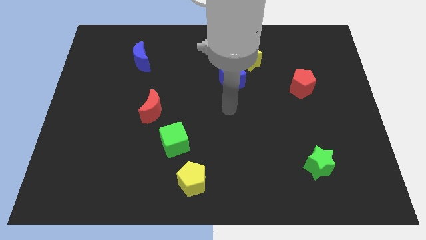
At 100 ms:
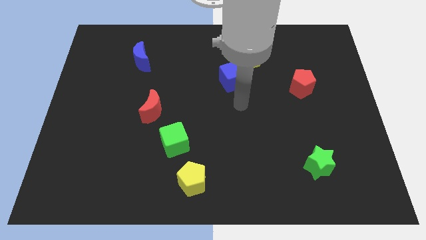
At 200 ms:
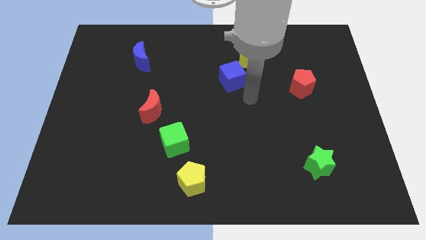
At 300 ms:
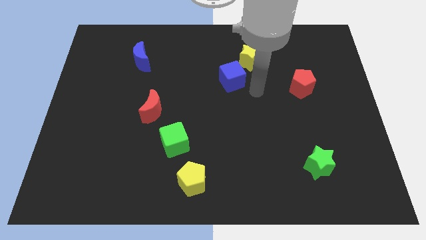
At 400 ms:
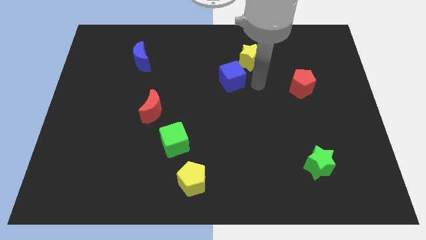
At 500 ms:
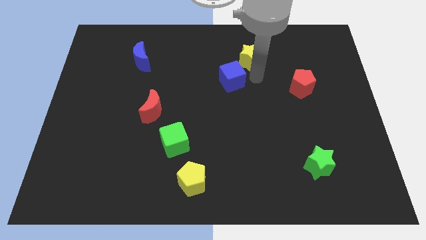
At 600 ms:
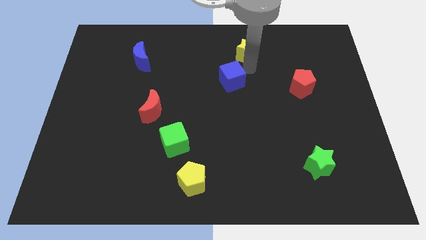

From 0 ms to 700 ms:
pull the blue cube apart from the yellow star

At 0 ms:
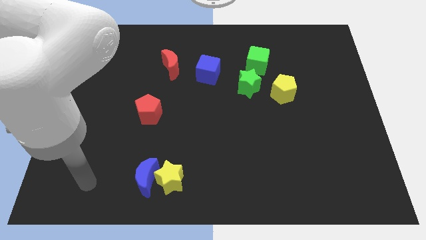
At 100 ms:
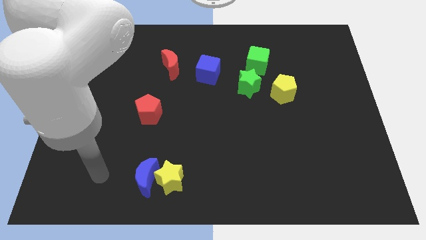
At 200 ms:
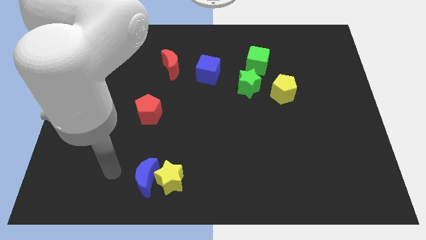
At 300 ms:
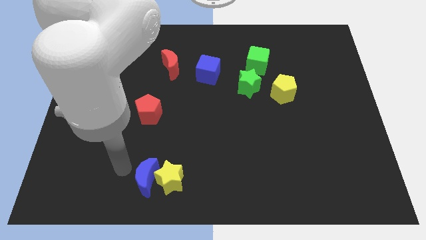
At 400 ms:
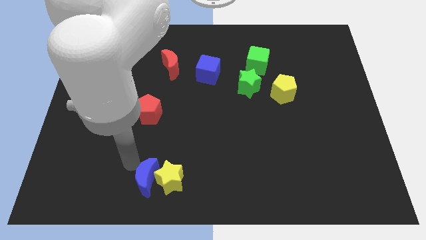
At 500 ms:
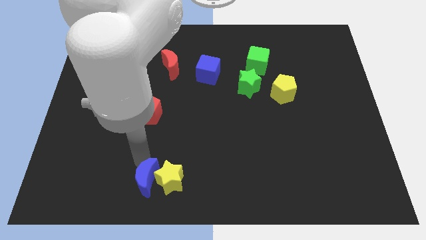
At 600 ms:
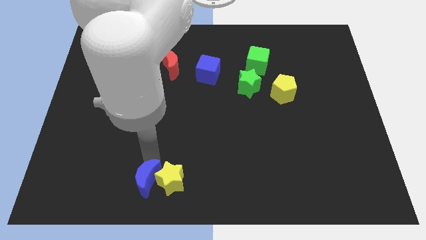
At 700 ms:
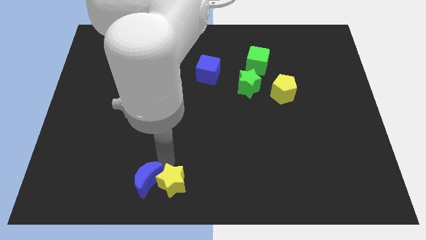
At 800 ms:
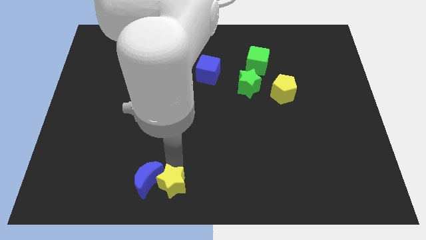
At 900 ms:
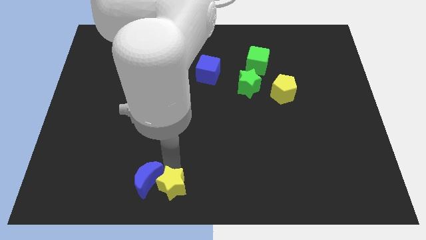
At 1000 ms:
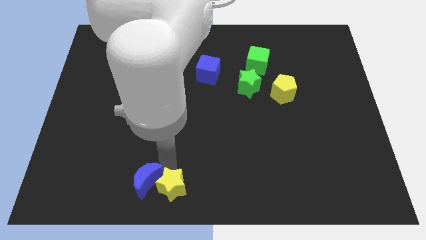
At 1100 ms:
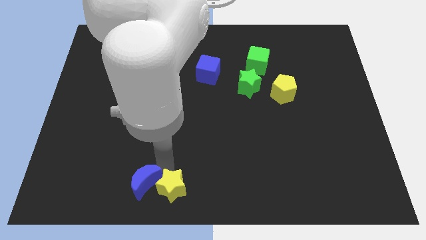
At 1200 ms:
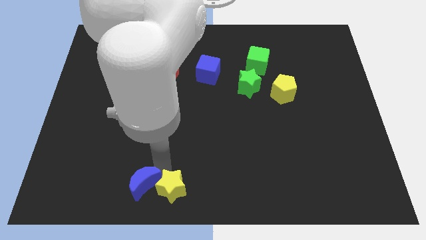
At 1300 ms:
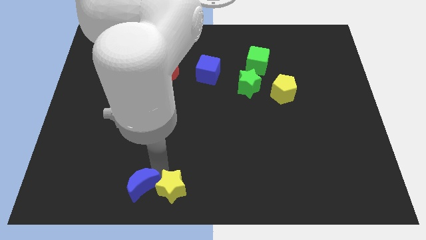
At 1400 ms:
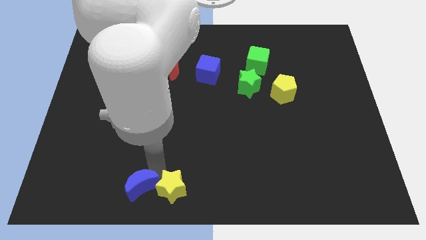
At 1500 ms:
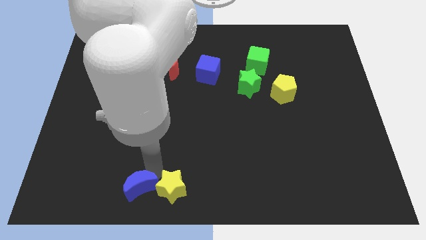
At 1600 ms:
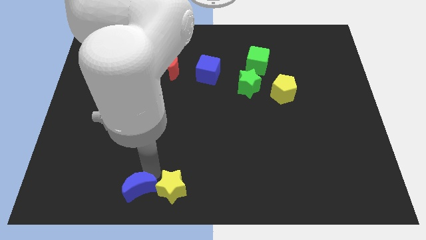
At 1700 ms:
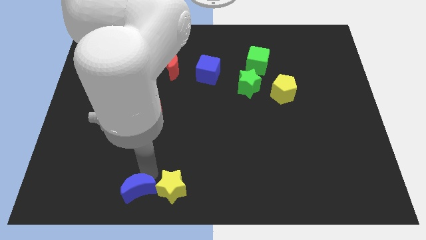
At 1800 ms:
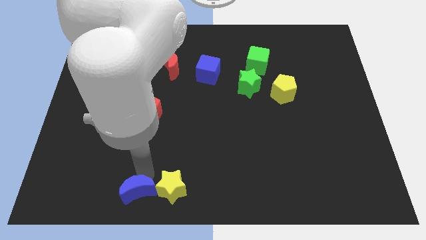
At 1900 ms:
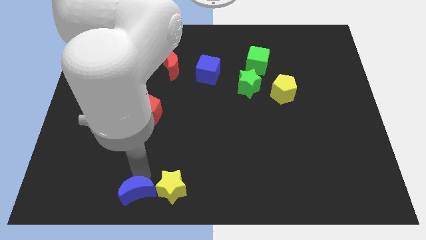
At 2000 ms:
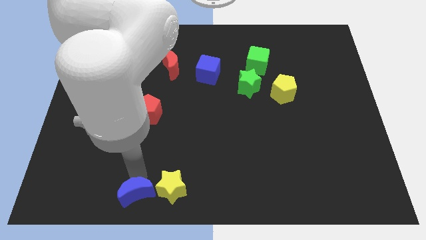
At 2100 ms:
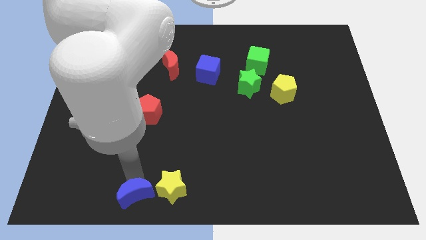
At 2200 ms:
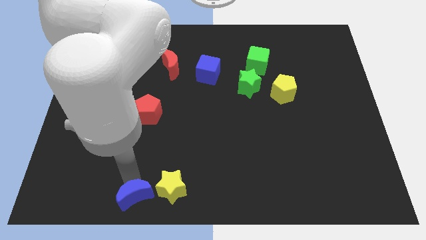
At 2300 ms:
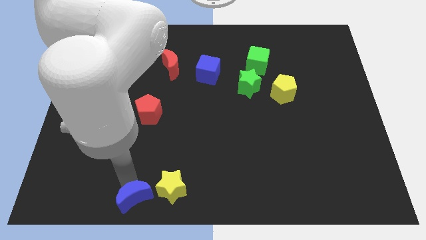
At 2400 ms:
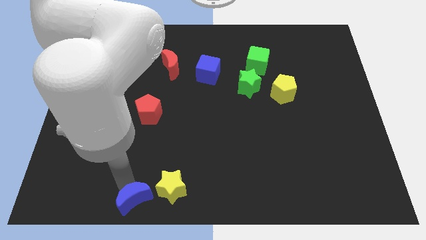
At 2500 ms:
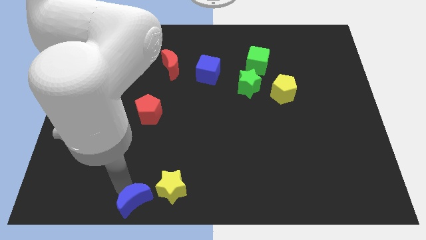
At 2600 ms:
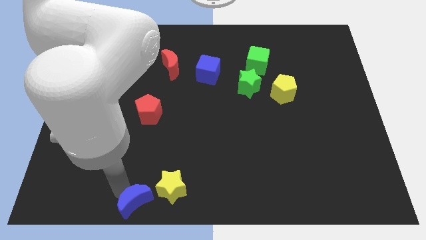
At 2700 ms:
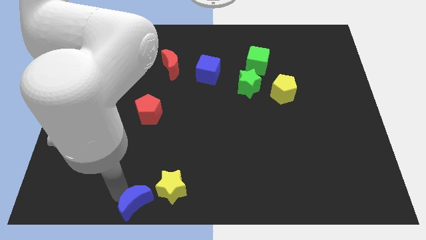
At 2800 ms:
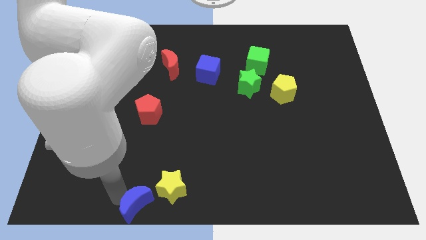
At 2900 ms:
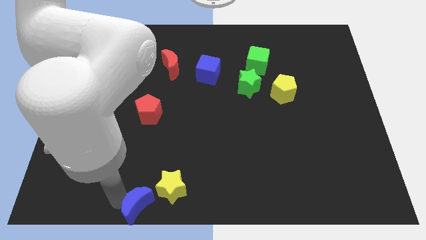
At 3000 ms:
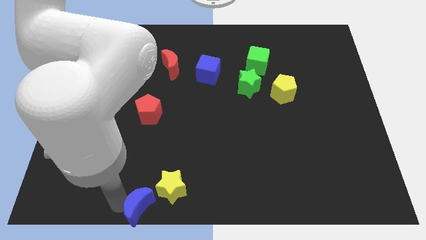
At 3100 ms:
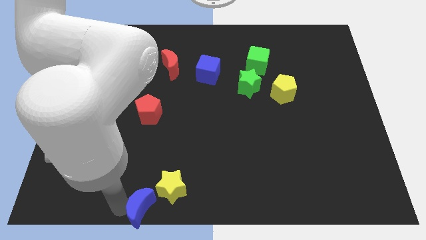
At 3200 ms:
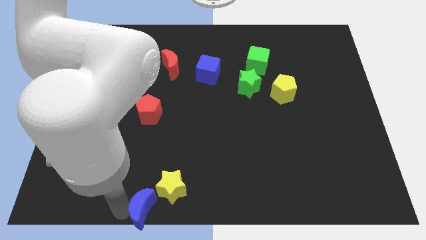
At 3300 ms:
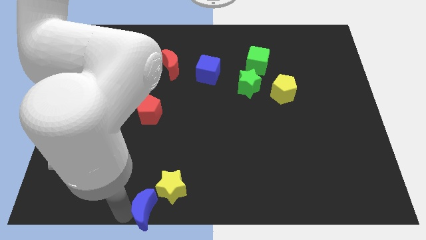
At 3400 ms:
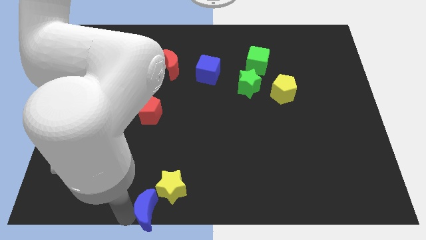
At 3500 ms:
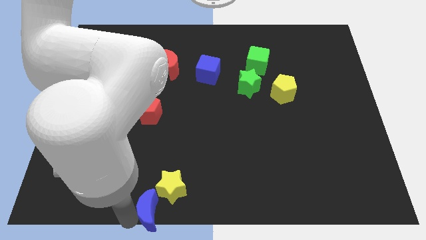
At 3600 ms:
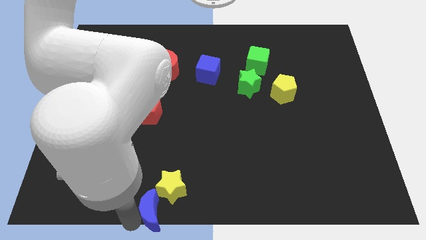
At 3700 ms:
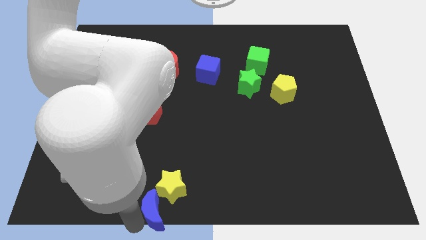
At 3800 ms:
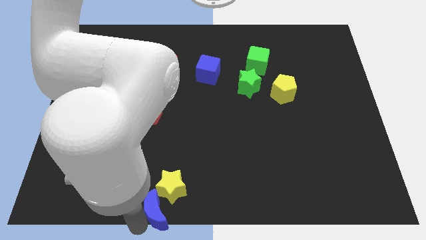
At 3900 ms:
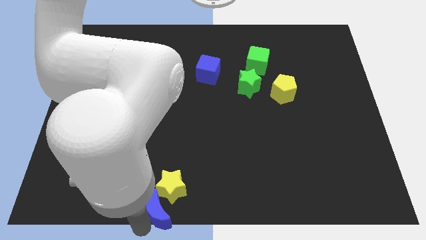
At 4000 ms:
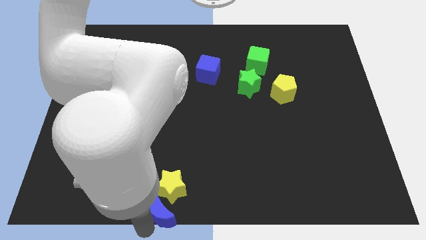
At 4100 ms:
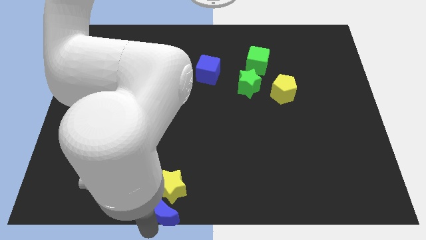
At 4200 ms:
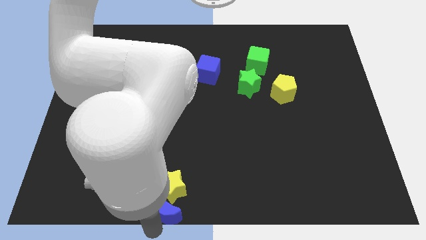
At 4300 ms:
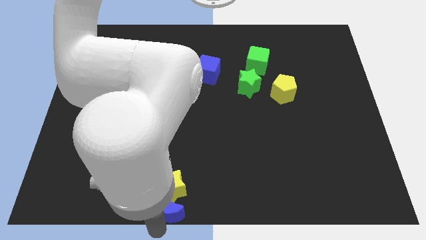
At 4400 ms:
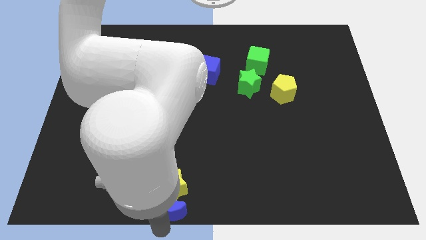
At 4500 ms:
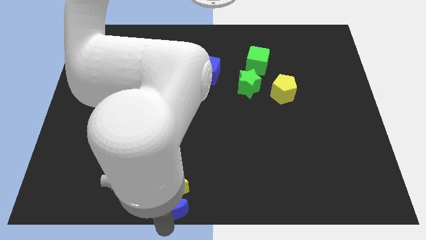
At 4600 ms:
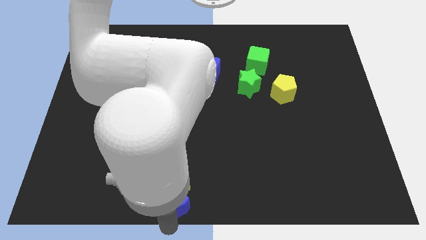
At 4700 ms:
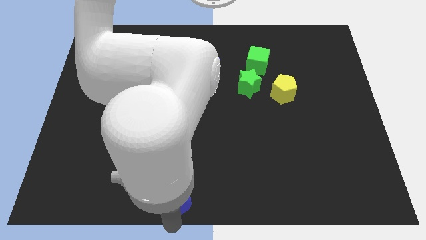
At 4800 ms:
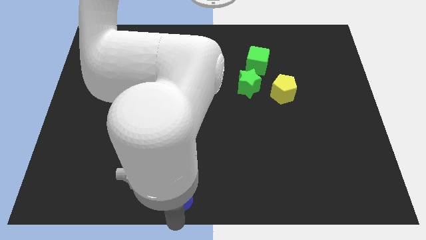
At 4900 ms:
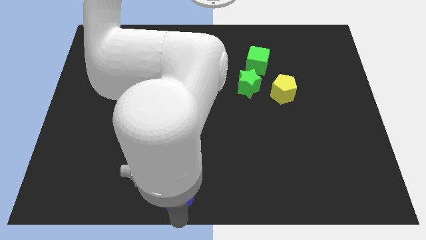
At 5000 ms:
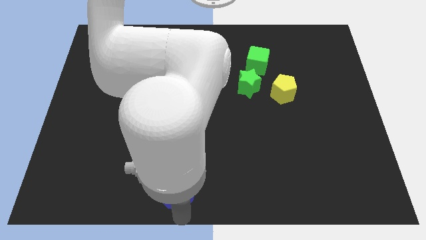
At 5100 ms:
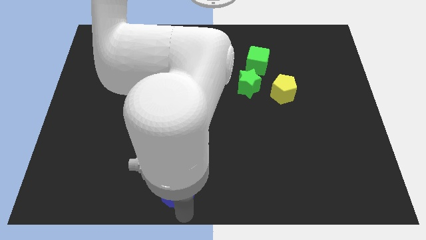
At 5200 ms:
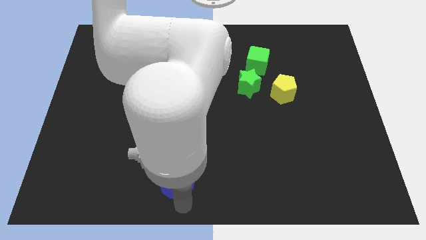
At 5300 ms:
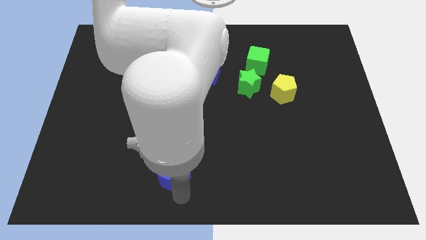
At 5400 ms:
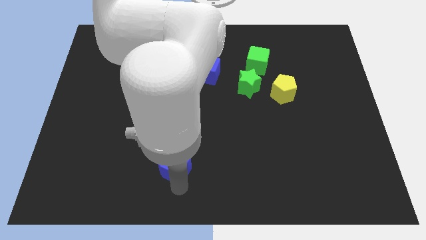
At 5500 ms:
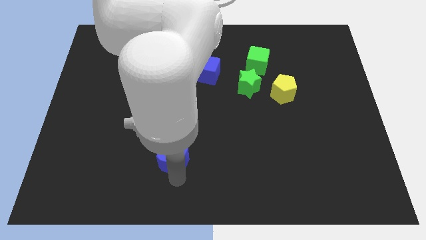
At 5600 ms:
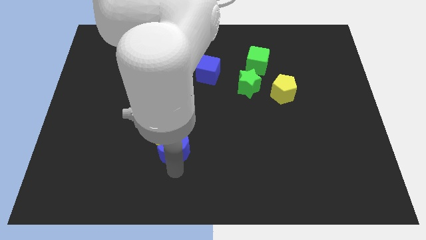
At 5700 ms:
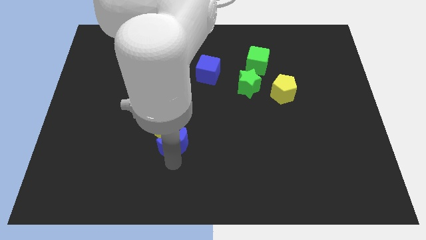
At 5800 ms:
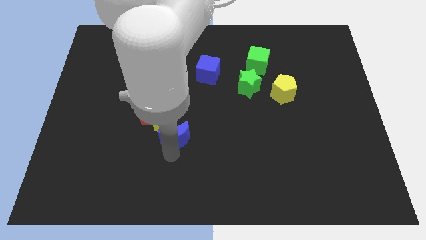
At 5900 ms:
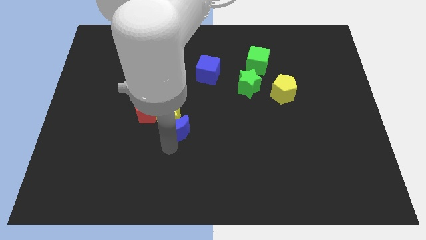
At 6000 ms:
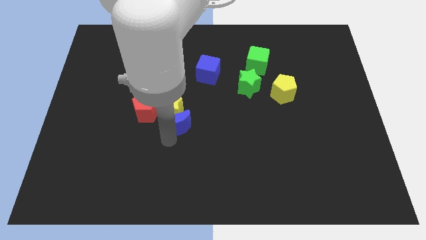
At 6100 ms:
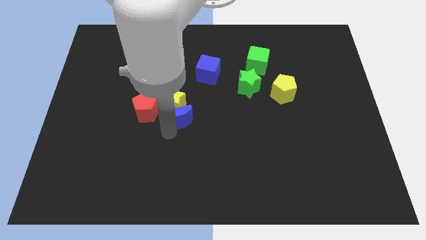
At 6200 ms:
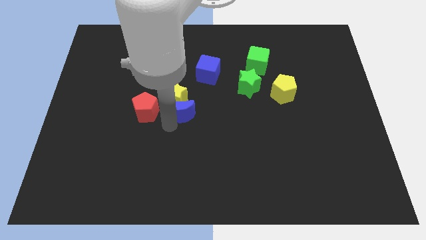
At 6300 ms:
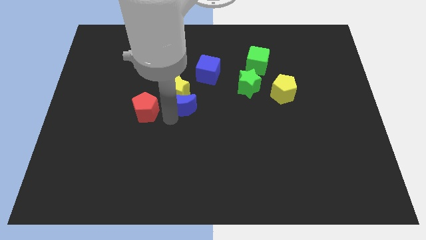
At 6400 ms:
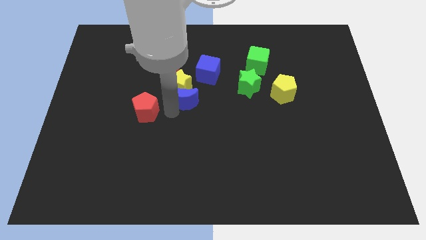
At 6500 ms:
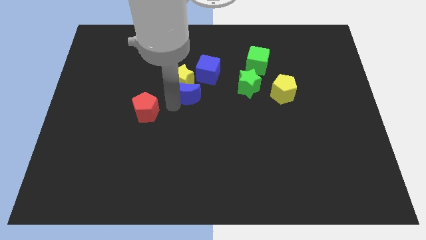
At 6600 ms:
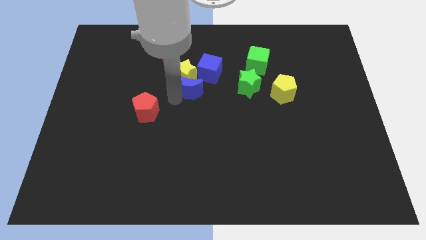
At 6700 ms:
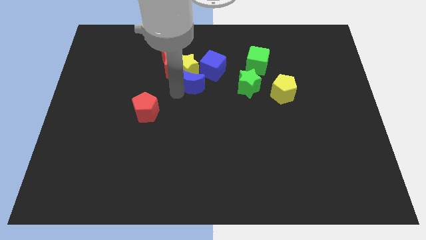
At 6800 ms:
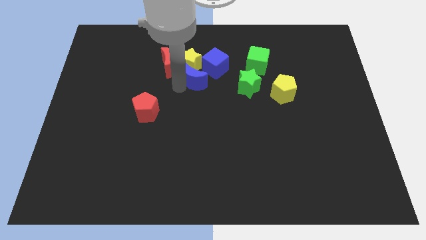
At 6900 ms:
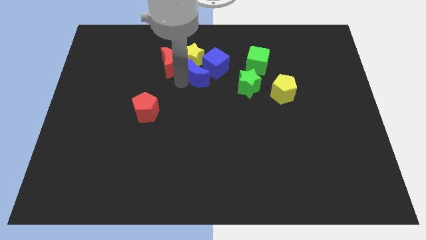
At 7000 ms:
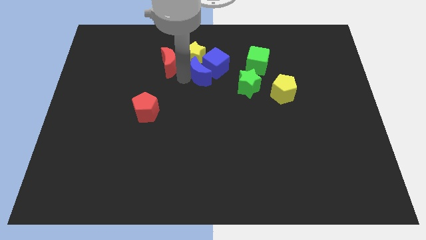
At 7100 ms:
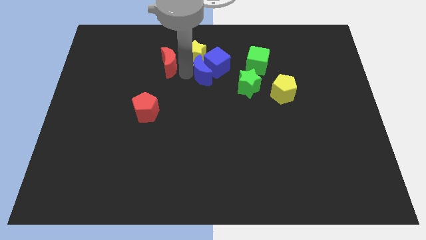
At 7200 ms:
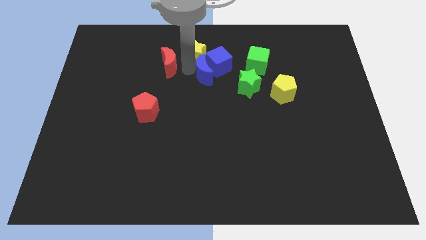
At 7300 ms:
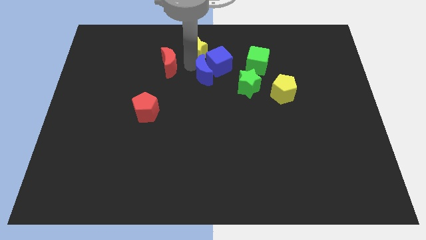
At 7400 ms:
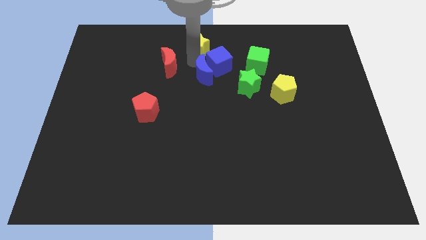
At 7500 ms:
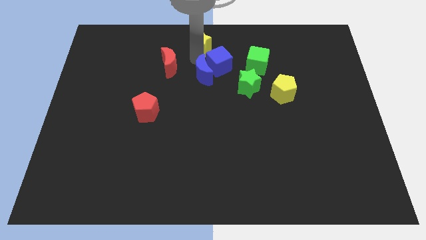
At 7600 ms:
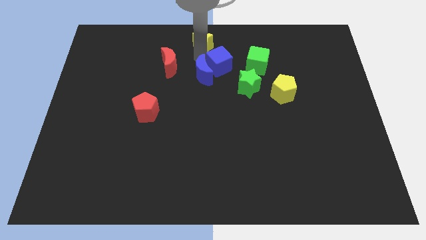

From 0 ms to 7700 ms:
pull the blue moon apart from the yellow star

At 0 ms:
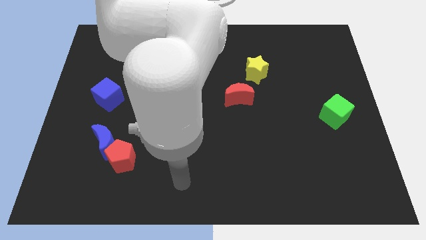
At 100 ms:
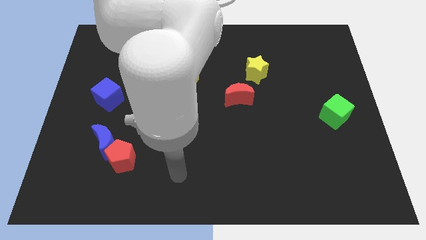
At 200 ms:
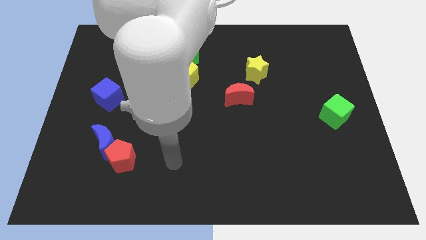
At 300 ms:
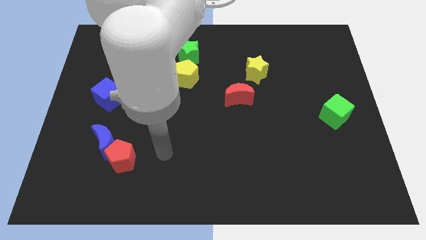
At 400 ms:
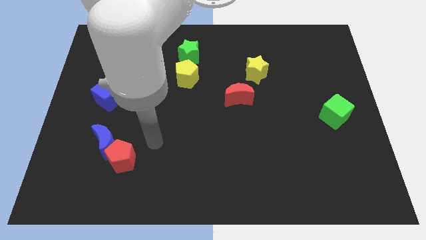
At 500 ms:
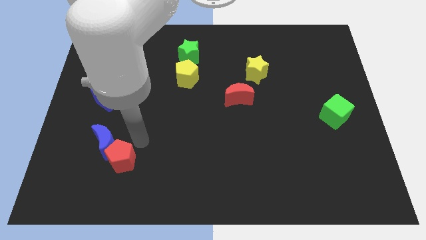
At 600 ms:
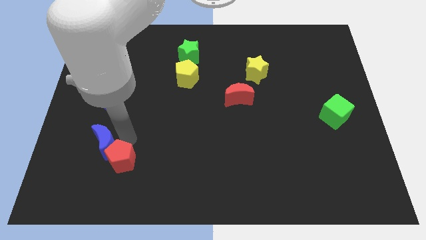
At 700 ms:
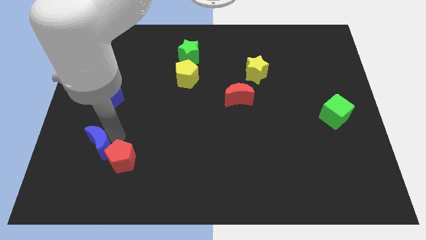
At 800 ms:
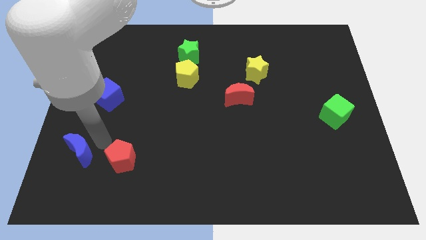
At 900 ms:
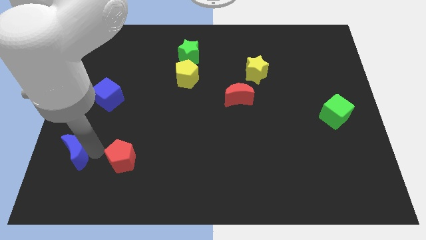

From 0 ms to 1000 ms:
move the red pentagon away from the blue moon

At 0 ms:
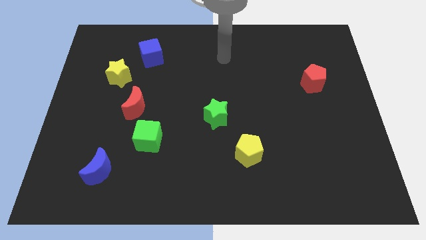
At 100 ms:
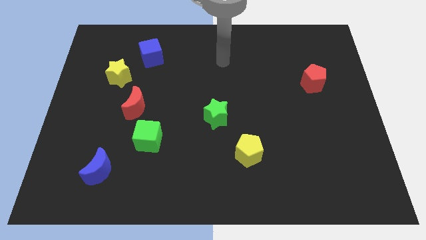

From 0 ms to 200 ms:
move the red moon away from the green cube
